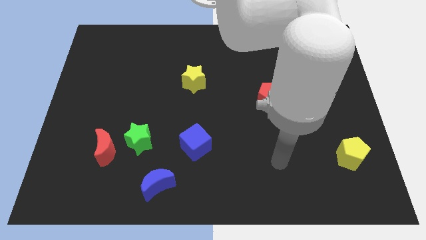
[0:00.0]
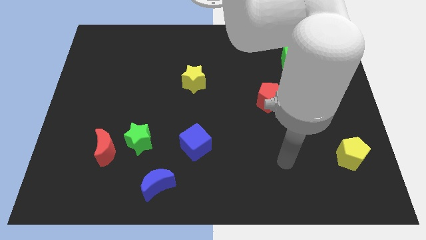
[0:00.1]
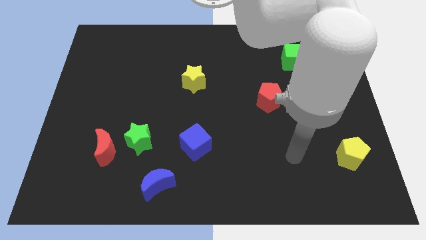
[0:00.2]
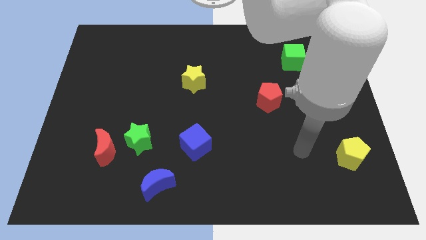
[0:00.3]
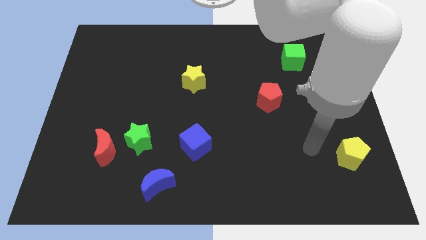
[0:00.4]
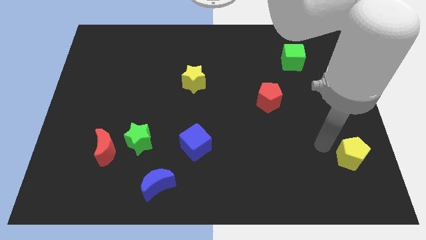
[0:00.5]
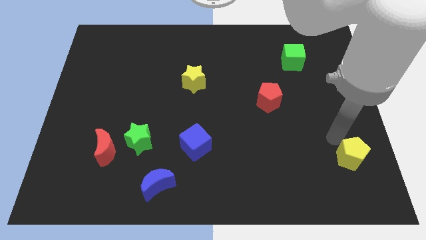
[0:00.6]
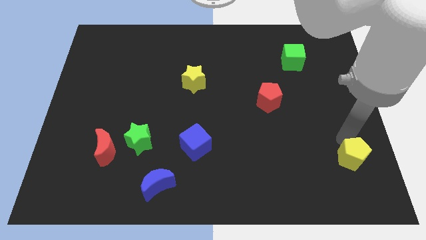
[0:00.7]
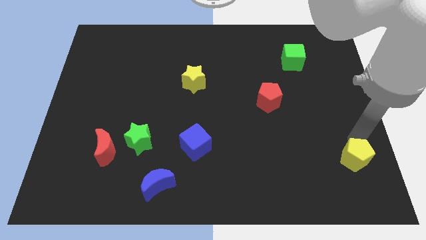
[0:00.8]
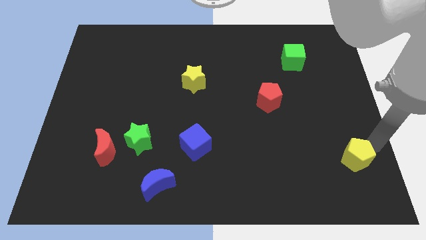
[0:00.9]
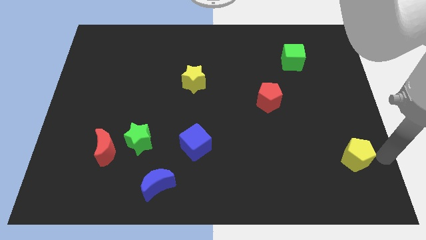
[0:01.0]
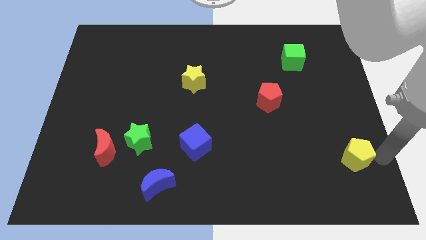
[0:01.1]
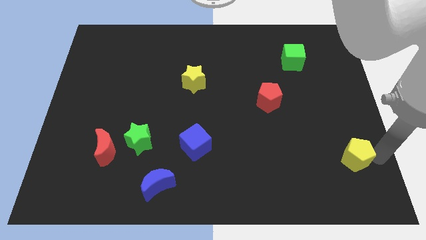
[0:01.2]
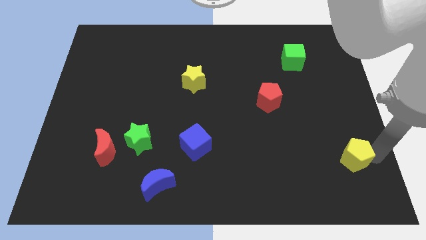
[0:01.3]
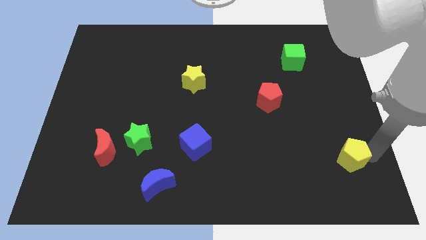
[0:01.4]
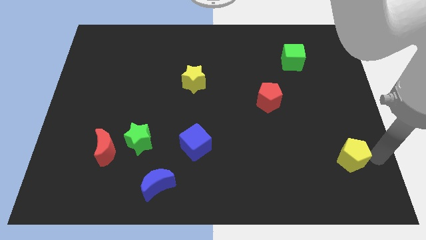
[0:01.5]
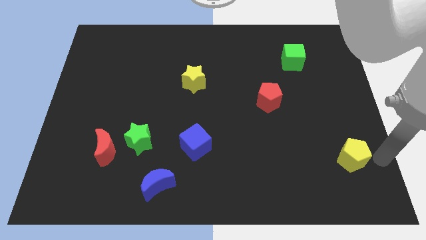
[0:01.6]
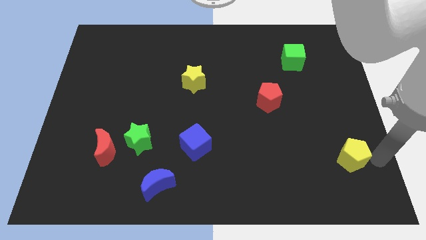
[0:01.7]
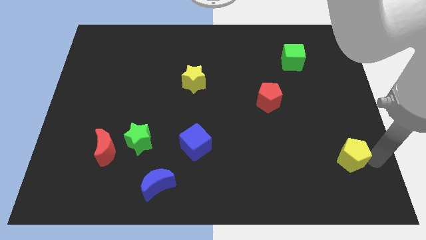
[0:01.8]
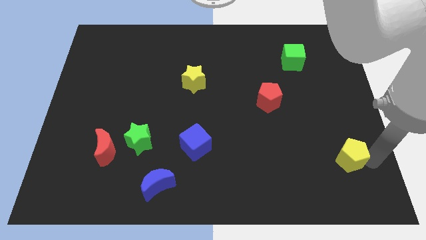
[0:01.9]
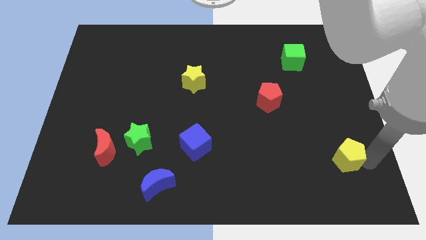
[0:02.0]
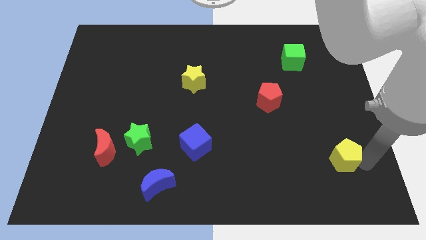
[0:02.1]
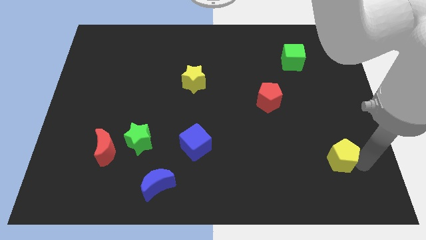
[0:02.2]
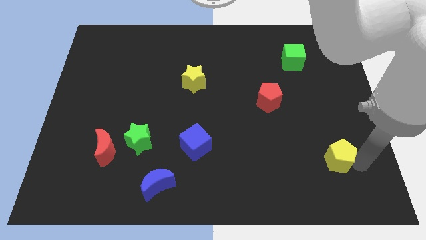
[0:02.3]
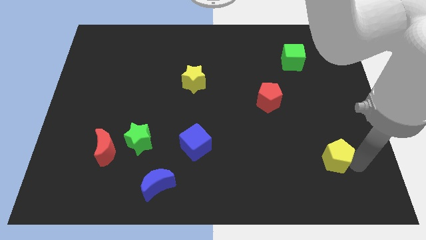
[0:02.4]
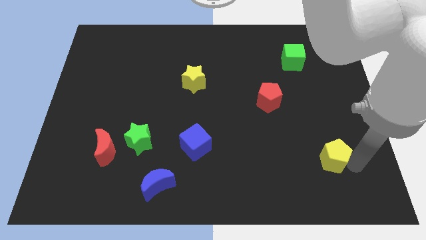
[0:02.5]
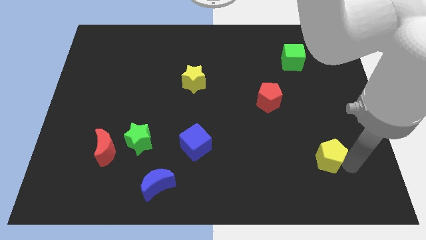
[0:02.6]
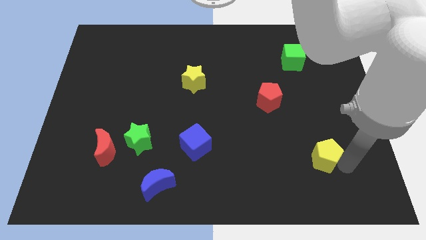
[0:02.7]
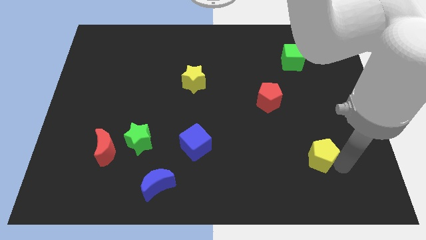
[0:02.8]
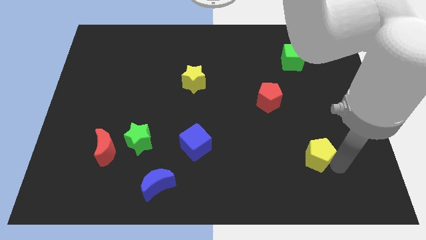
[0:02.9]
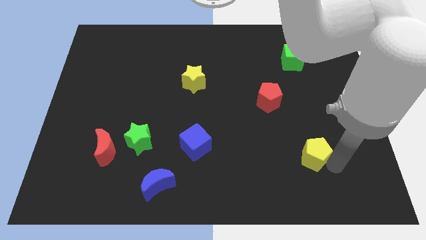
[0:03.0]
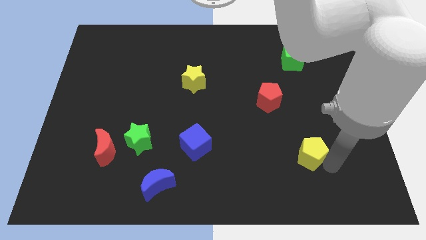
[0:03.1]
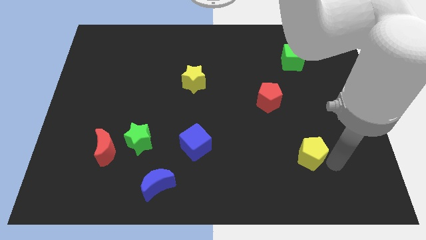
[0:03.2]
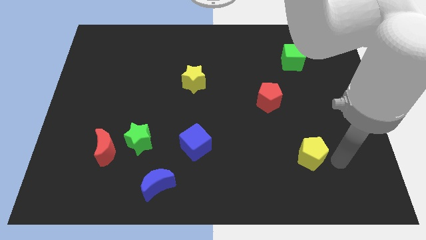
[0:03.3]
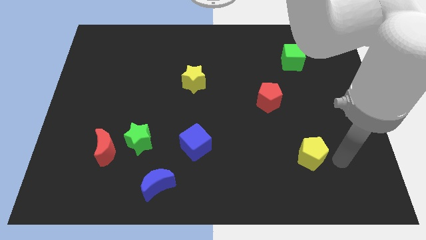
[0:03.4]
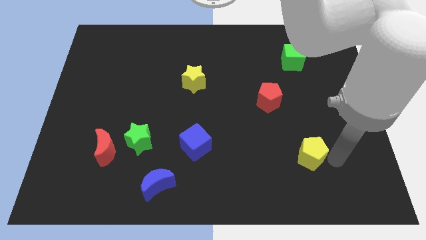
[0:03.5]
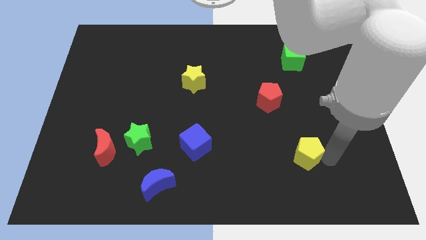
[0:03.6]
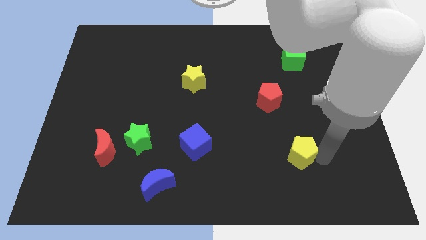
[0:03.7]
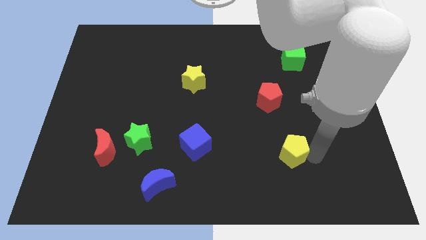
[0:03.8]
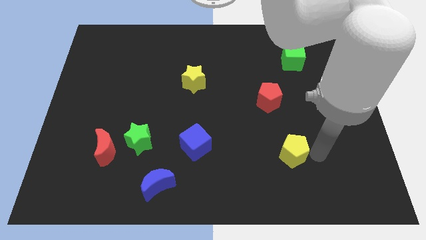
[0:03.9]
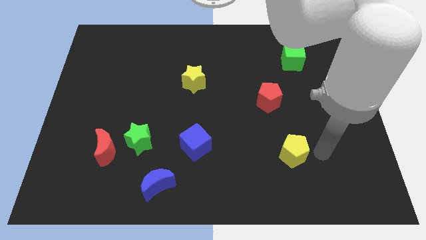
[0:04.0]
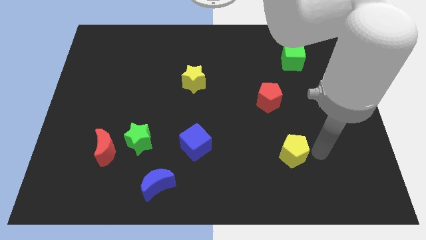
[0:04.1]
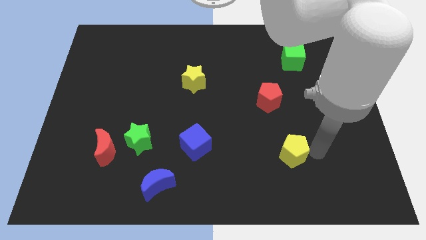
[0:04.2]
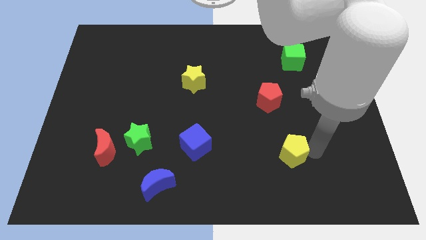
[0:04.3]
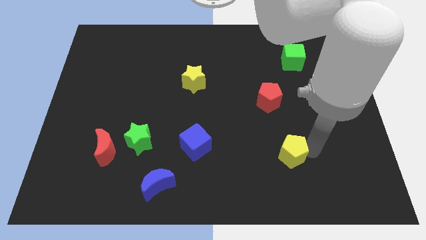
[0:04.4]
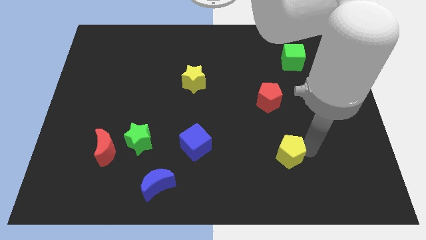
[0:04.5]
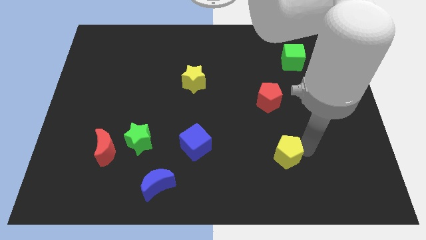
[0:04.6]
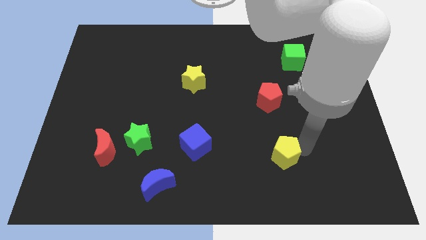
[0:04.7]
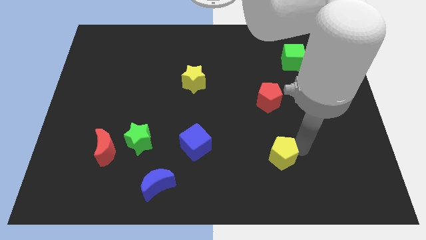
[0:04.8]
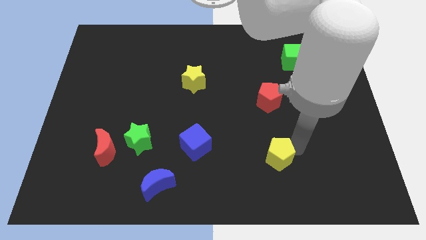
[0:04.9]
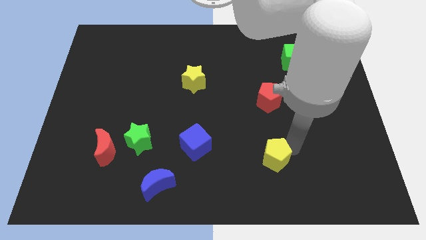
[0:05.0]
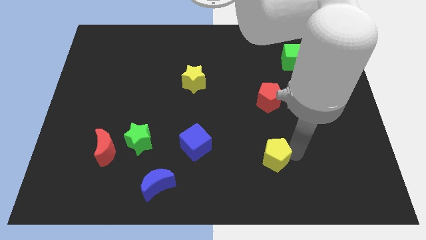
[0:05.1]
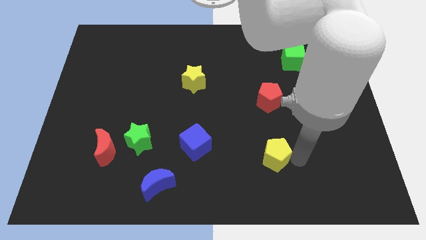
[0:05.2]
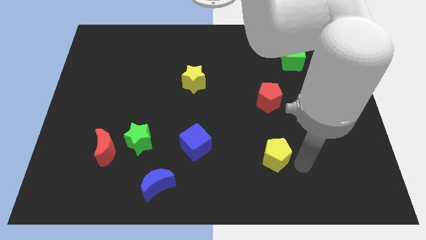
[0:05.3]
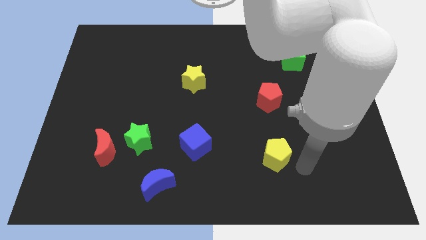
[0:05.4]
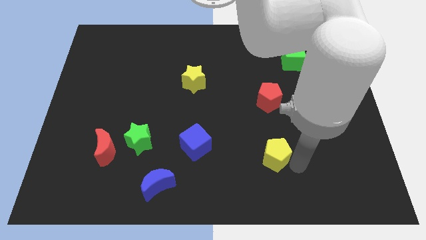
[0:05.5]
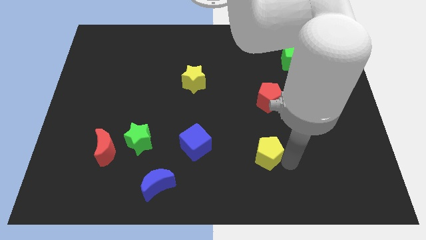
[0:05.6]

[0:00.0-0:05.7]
move the yellow pentagon right of the blue cube
